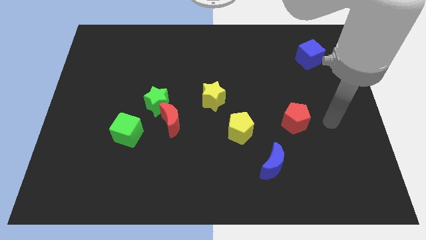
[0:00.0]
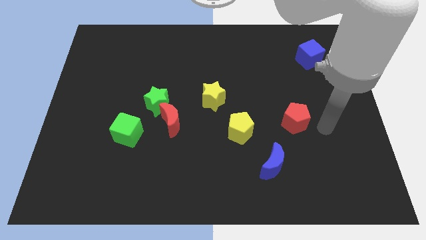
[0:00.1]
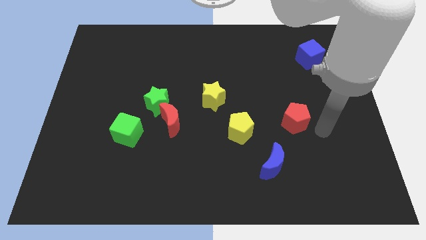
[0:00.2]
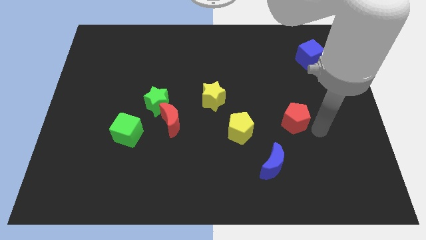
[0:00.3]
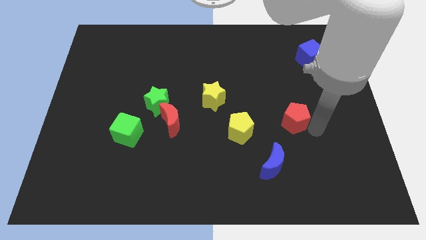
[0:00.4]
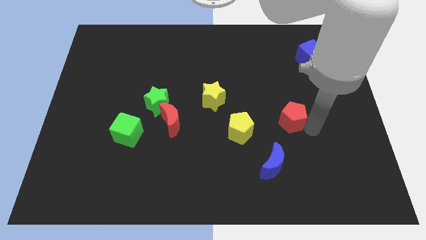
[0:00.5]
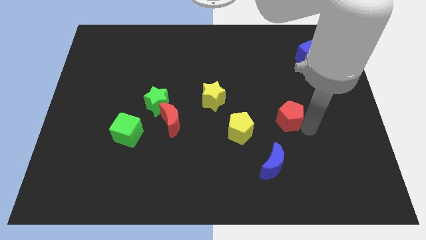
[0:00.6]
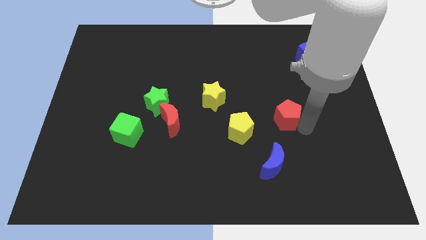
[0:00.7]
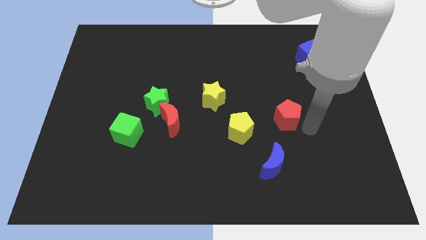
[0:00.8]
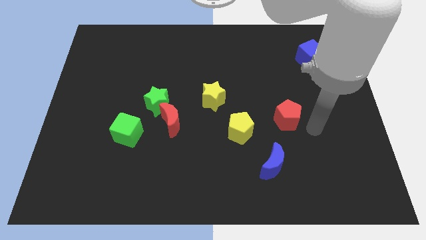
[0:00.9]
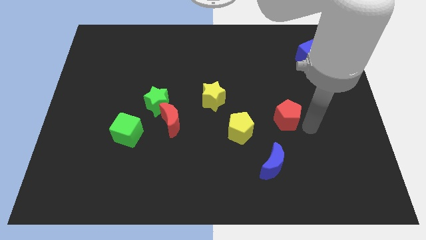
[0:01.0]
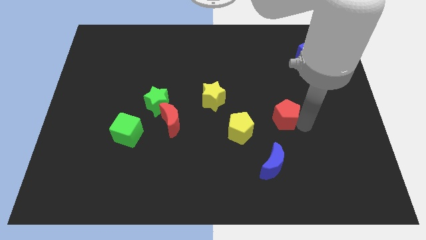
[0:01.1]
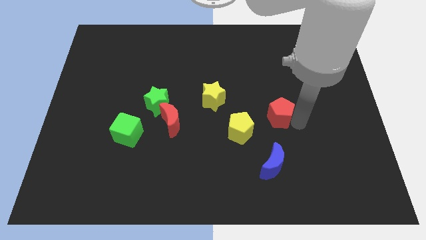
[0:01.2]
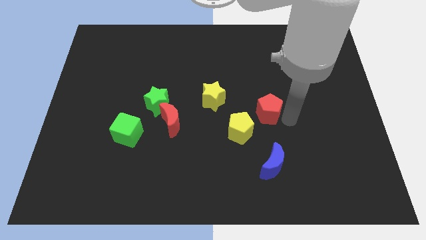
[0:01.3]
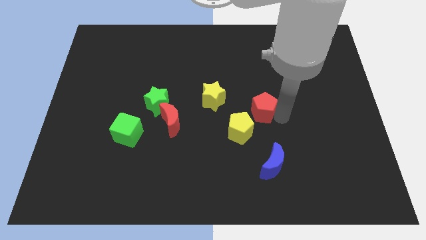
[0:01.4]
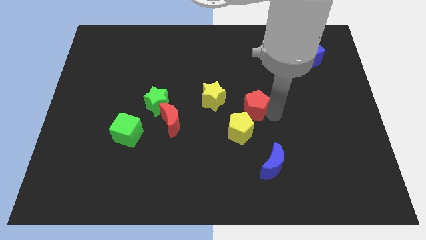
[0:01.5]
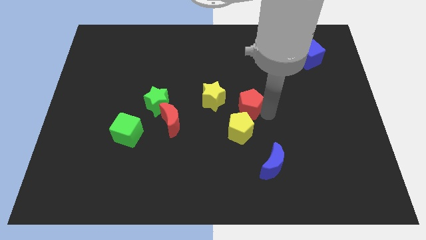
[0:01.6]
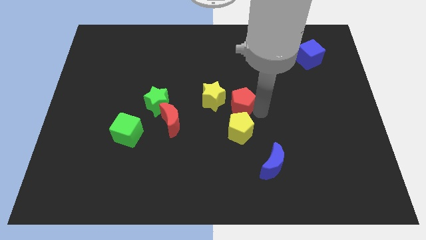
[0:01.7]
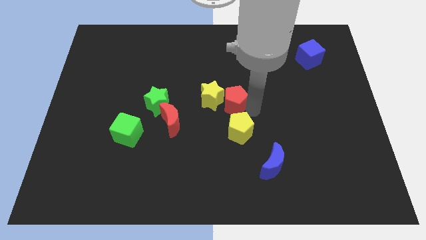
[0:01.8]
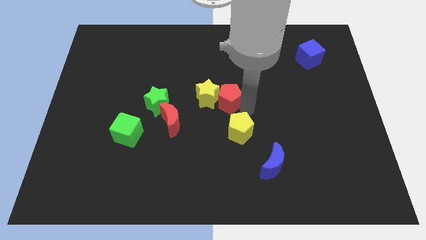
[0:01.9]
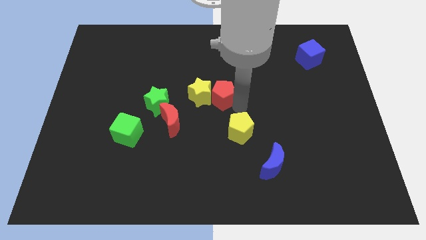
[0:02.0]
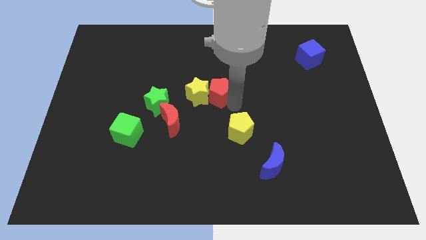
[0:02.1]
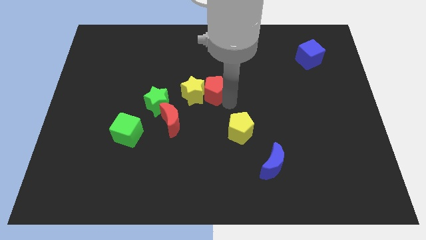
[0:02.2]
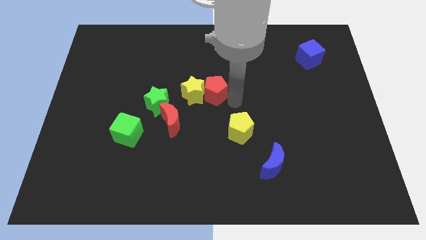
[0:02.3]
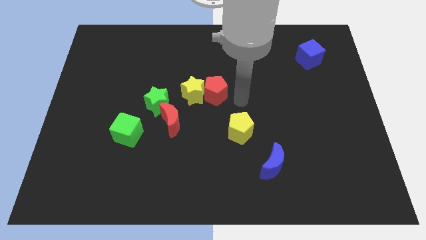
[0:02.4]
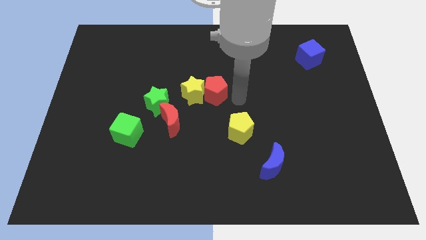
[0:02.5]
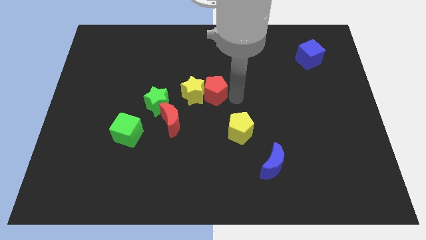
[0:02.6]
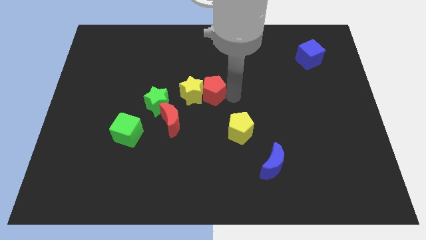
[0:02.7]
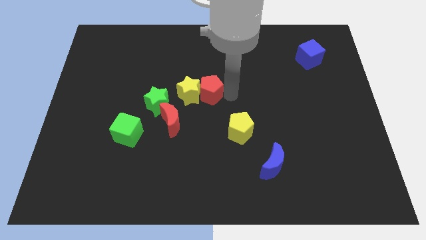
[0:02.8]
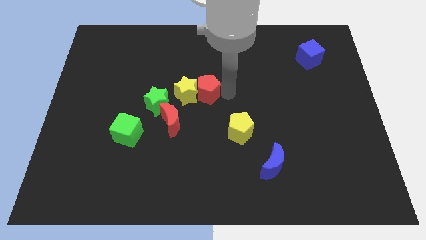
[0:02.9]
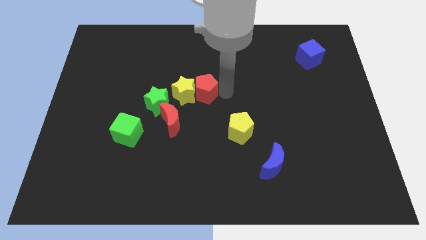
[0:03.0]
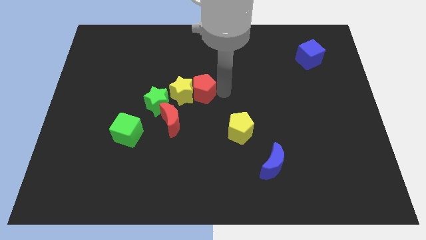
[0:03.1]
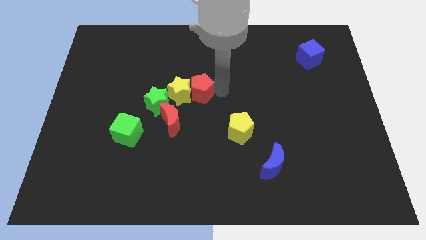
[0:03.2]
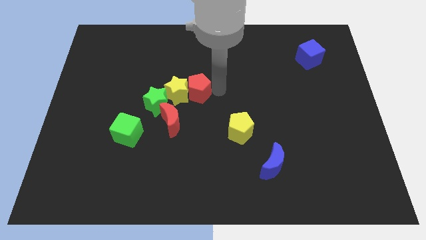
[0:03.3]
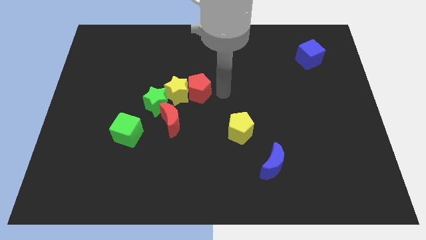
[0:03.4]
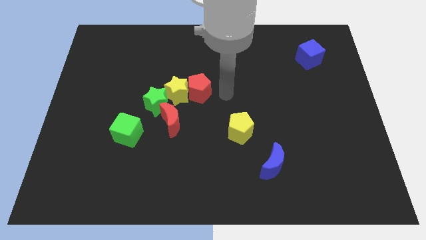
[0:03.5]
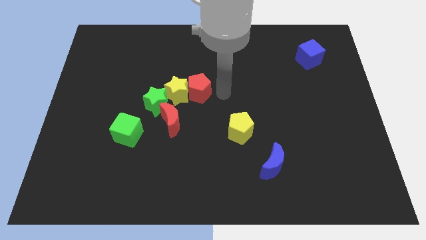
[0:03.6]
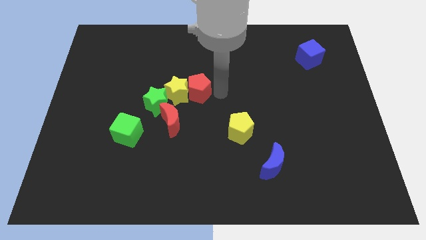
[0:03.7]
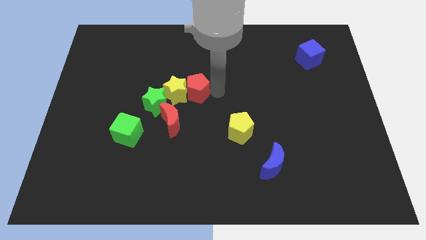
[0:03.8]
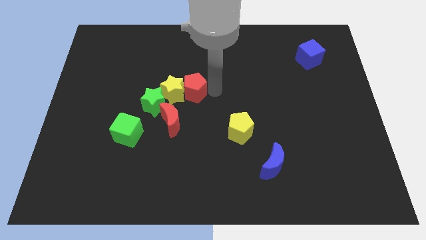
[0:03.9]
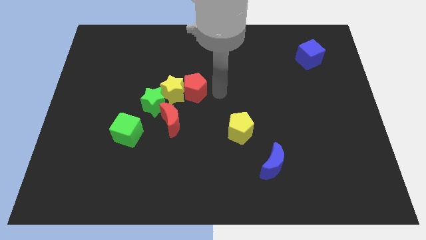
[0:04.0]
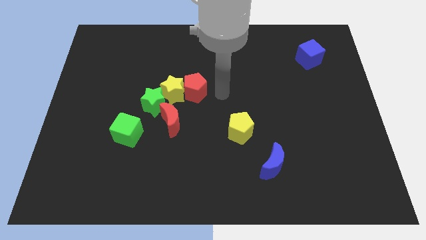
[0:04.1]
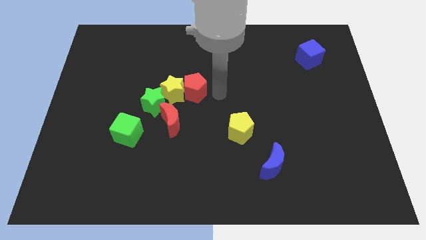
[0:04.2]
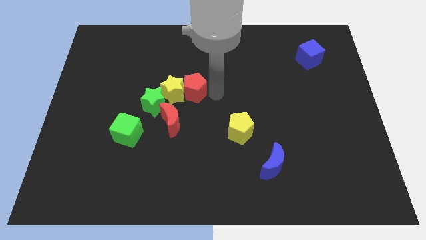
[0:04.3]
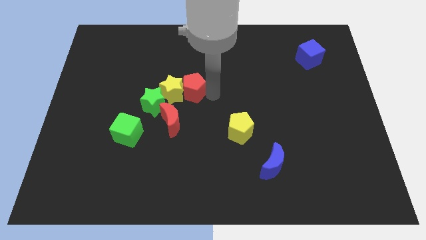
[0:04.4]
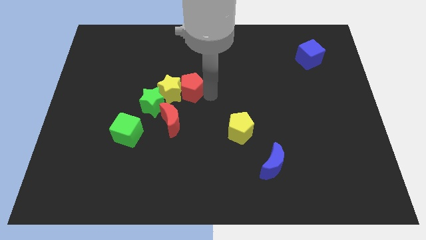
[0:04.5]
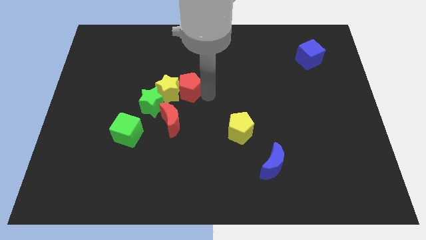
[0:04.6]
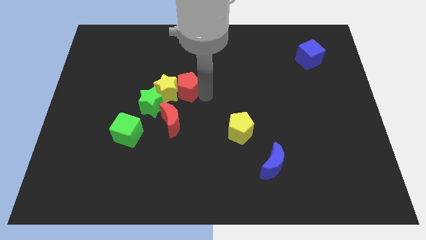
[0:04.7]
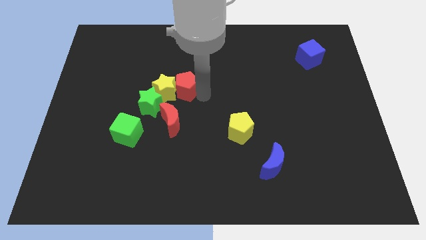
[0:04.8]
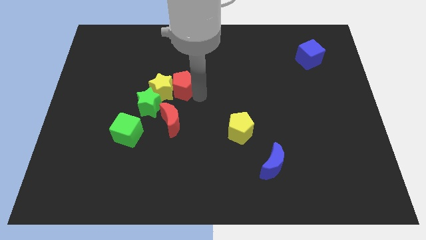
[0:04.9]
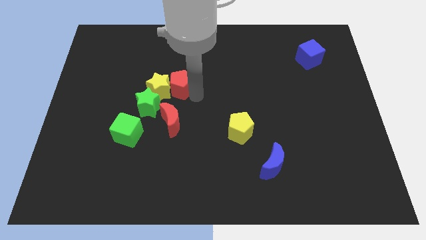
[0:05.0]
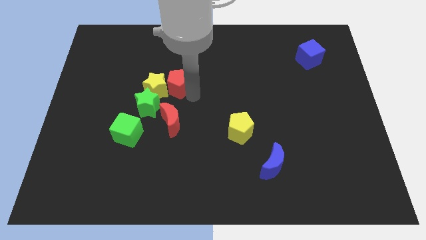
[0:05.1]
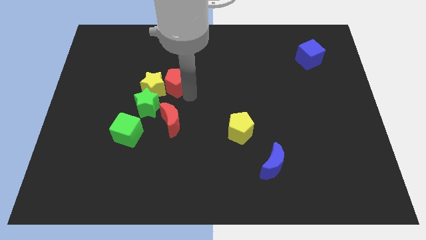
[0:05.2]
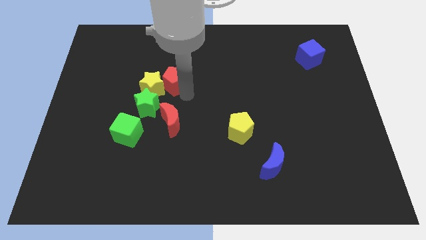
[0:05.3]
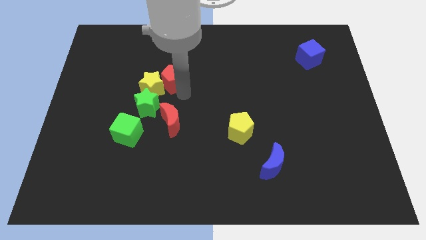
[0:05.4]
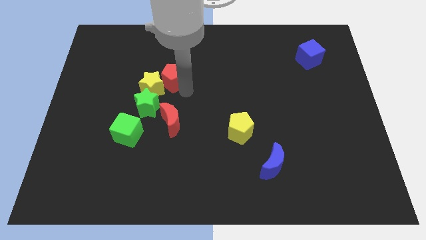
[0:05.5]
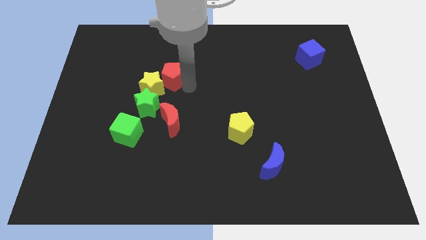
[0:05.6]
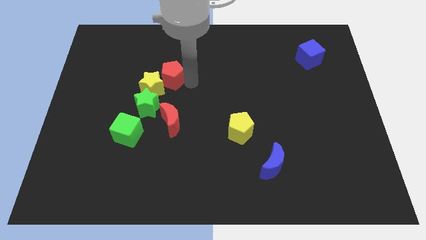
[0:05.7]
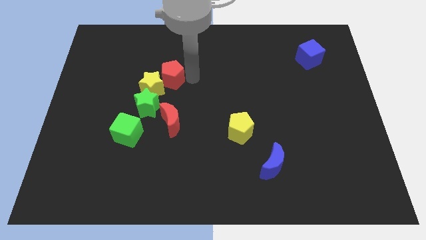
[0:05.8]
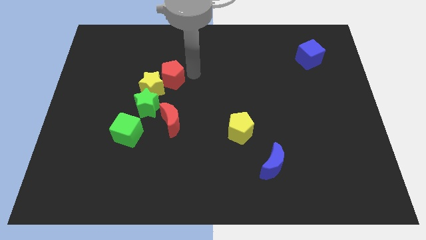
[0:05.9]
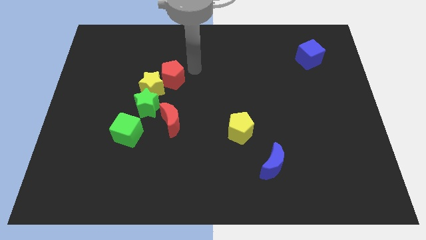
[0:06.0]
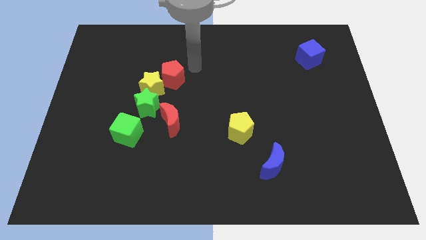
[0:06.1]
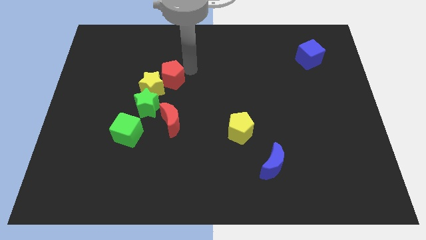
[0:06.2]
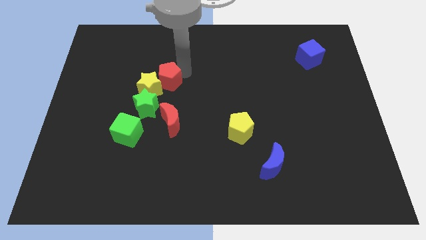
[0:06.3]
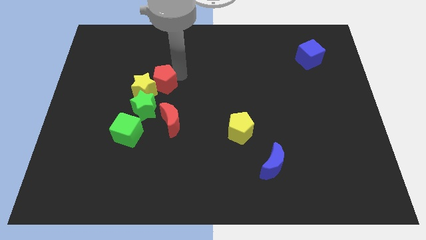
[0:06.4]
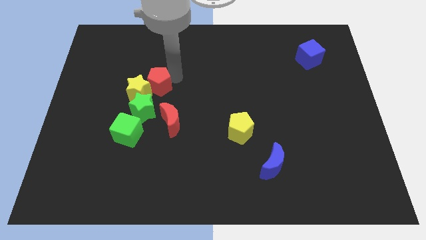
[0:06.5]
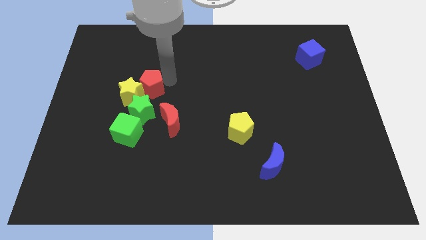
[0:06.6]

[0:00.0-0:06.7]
push the red pentagon to the top side of the green cube

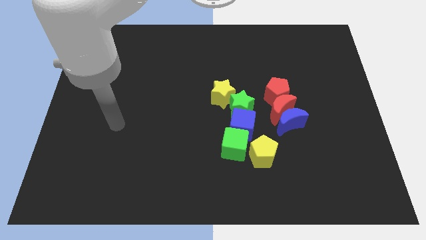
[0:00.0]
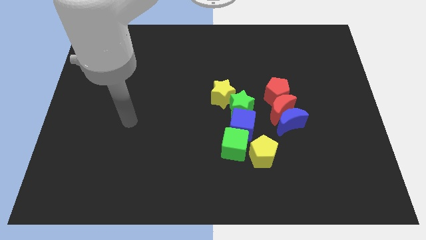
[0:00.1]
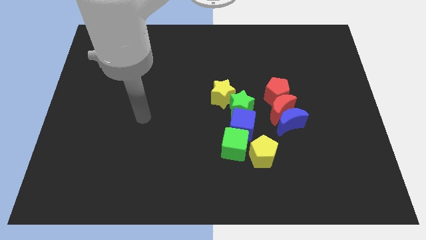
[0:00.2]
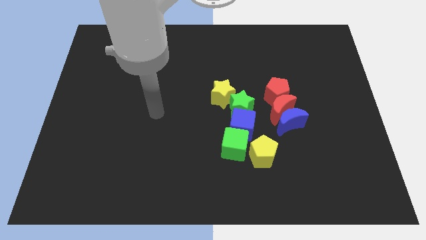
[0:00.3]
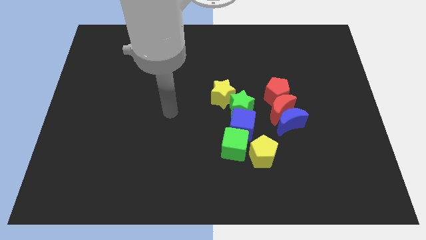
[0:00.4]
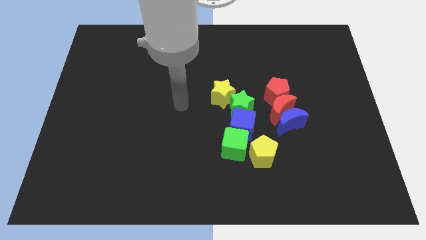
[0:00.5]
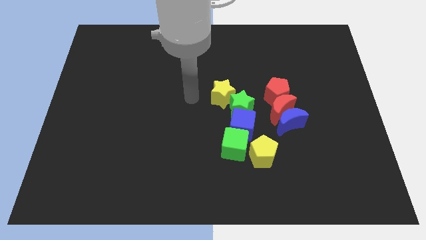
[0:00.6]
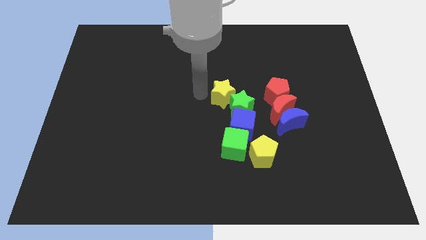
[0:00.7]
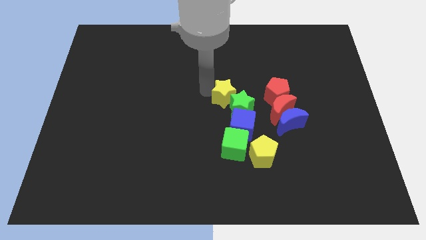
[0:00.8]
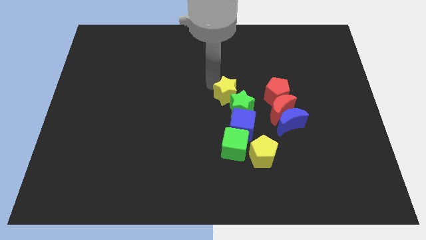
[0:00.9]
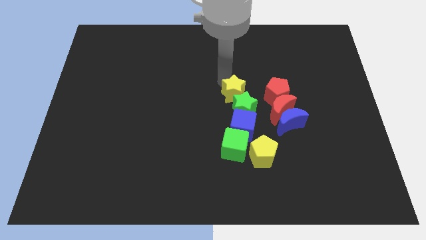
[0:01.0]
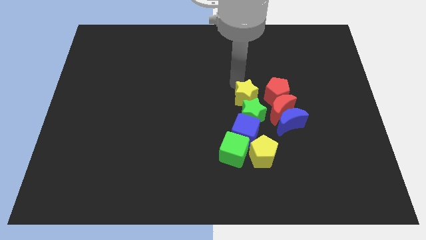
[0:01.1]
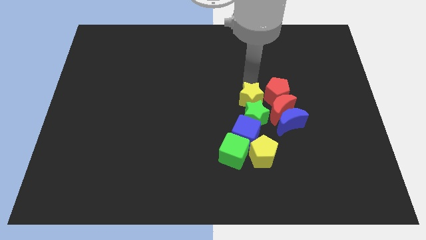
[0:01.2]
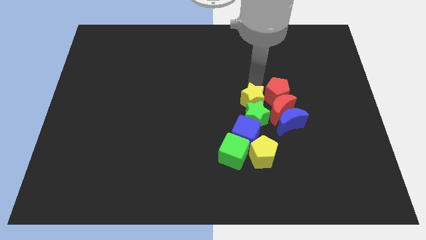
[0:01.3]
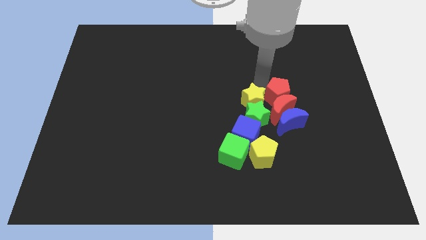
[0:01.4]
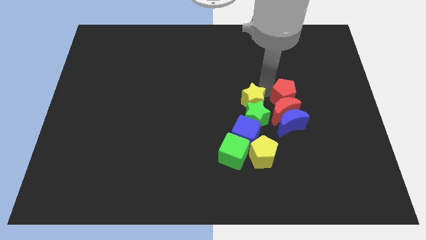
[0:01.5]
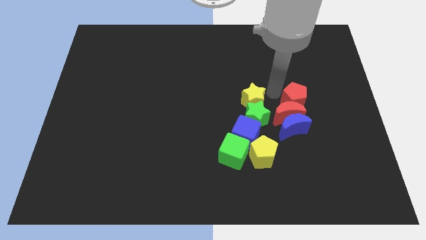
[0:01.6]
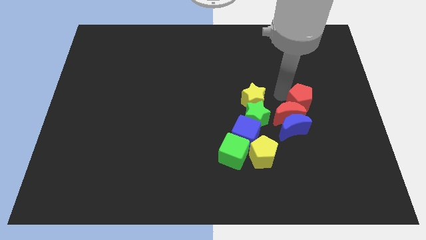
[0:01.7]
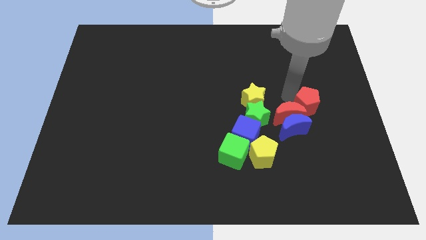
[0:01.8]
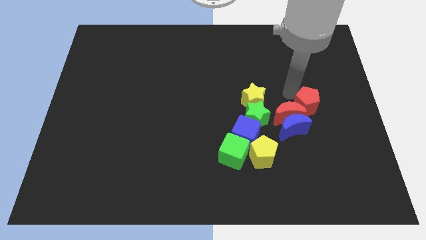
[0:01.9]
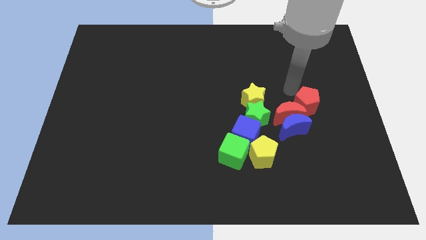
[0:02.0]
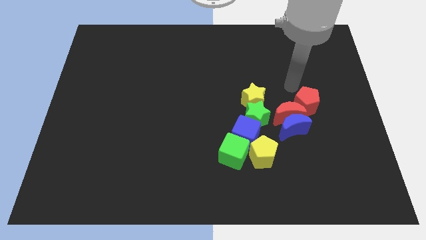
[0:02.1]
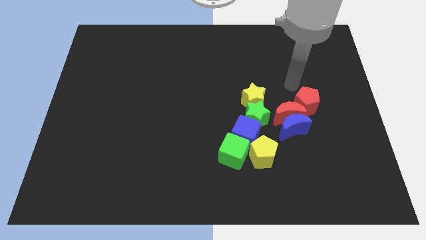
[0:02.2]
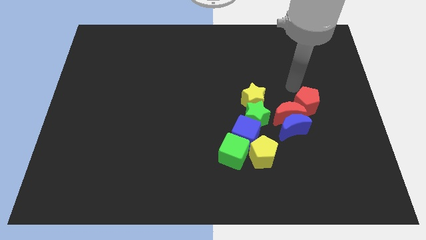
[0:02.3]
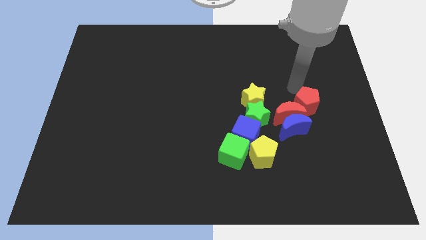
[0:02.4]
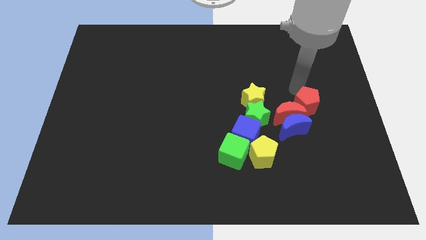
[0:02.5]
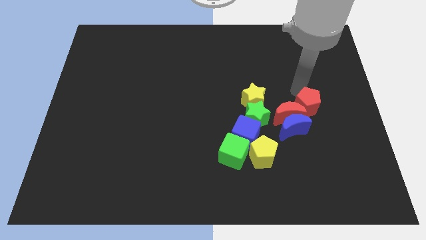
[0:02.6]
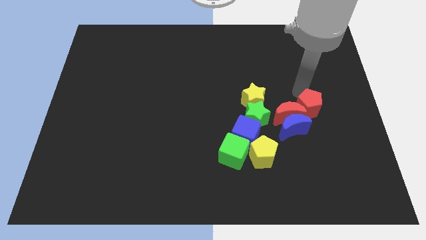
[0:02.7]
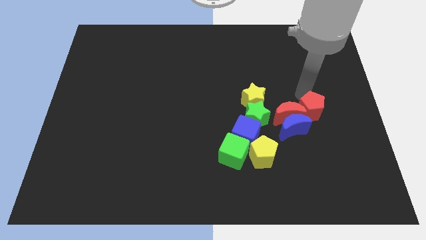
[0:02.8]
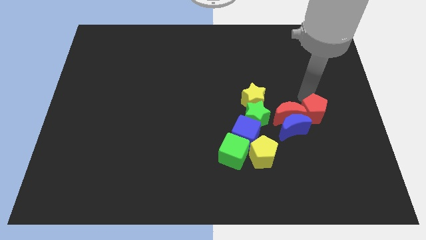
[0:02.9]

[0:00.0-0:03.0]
slide the red pentagon just right of the blue moon
